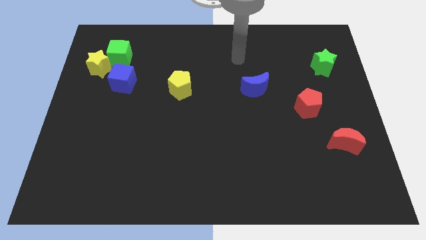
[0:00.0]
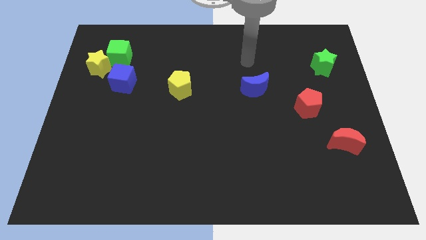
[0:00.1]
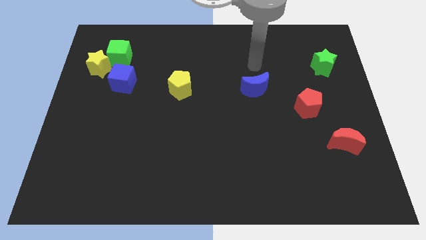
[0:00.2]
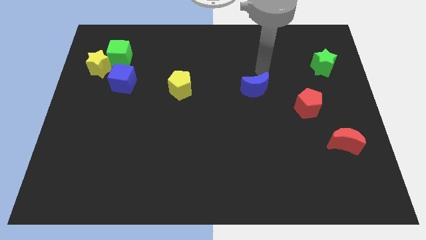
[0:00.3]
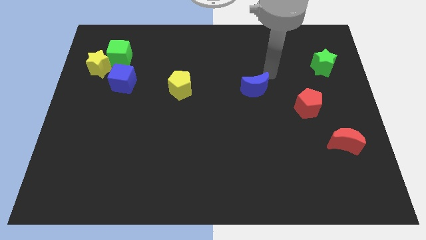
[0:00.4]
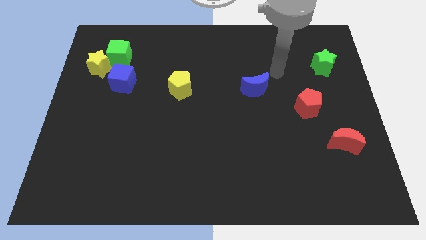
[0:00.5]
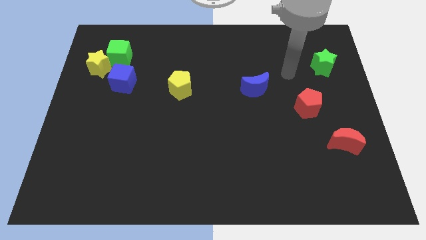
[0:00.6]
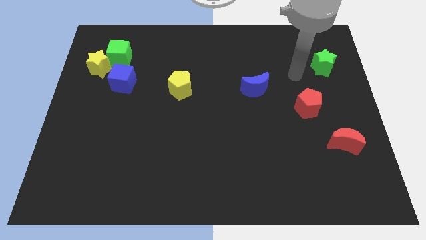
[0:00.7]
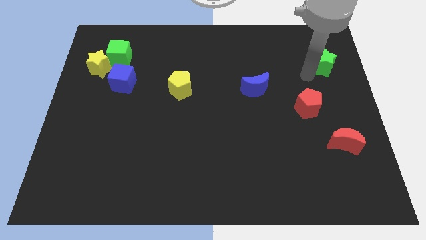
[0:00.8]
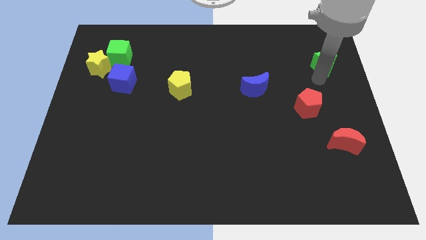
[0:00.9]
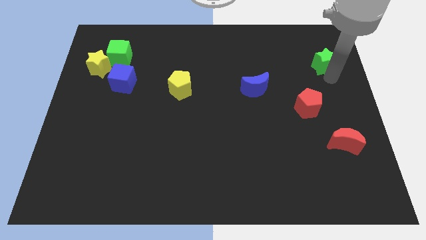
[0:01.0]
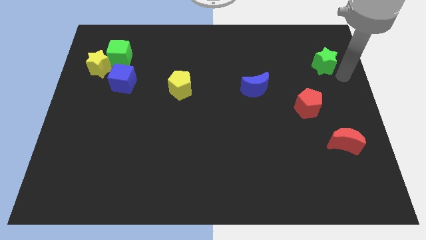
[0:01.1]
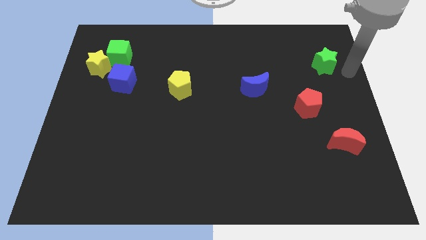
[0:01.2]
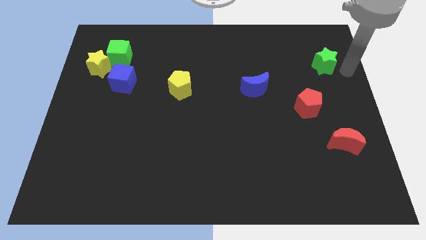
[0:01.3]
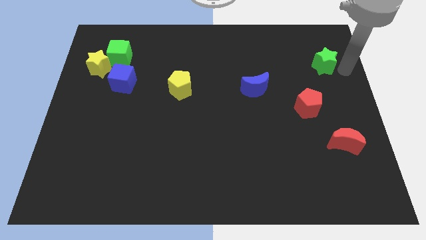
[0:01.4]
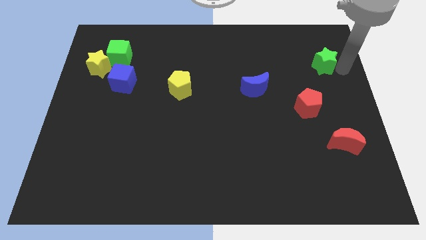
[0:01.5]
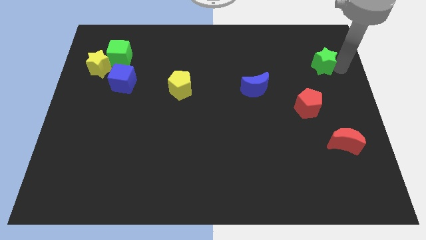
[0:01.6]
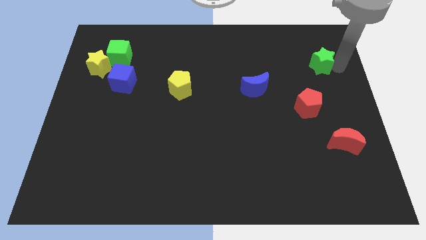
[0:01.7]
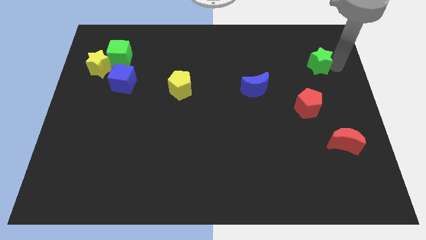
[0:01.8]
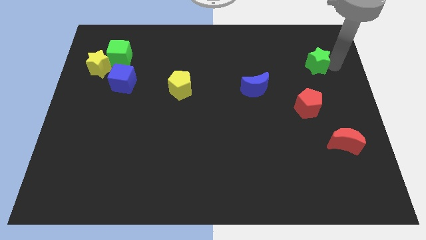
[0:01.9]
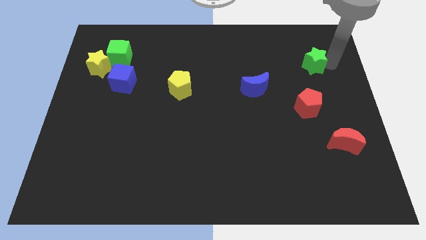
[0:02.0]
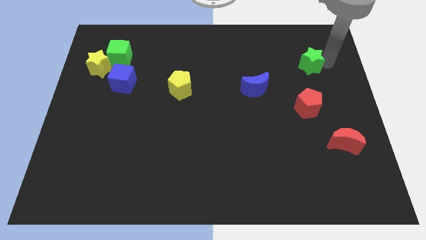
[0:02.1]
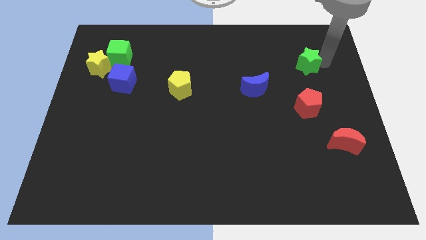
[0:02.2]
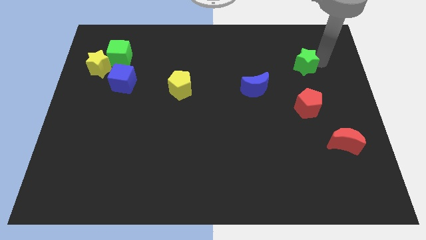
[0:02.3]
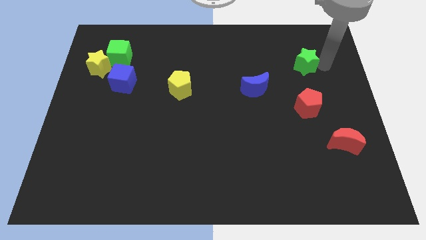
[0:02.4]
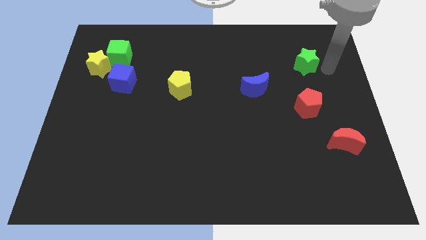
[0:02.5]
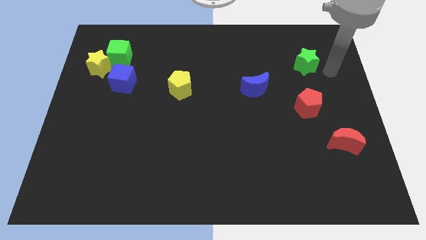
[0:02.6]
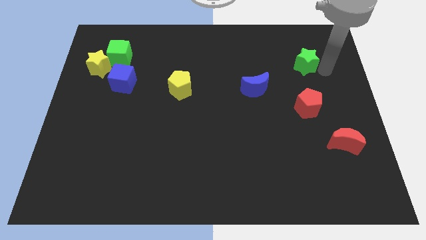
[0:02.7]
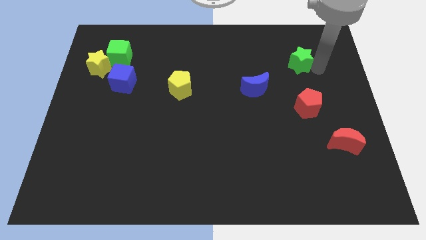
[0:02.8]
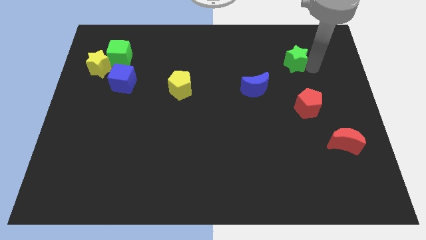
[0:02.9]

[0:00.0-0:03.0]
slightly push the green star to the left

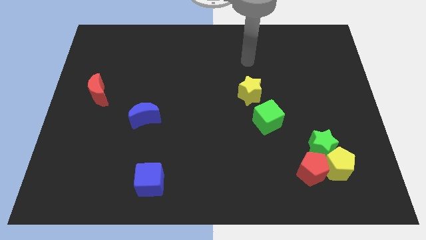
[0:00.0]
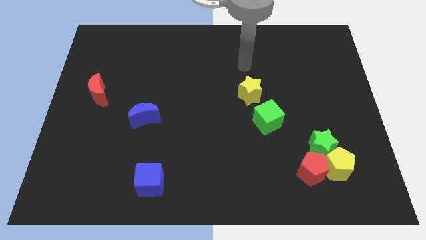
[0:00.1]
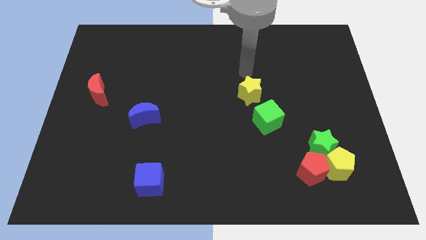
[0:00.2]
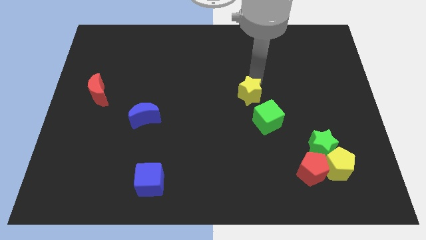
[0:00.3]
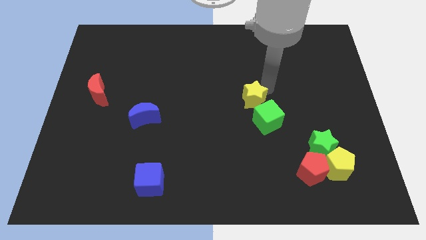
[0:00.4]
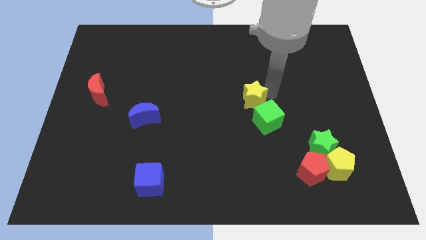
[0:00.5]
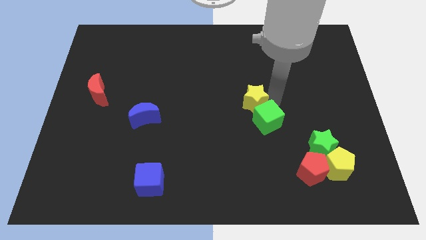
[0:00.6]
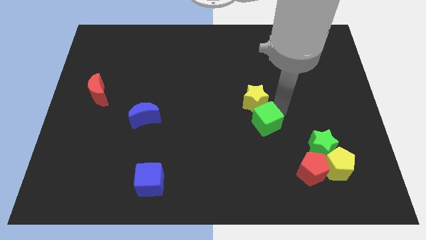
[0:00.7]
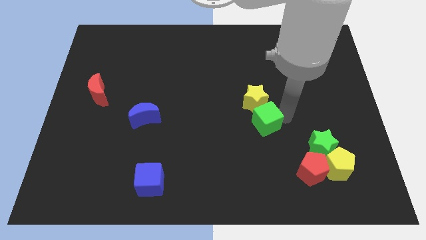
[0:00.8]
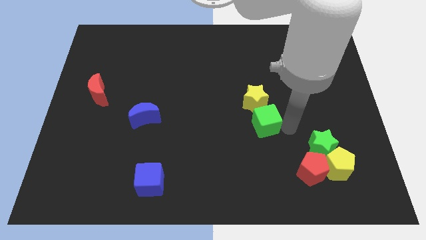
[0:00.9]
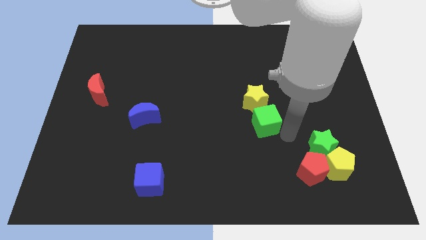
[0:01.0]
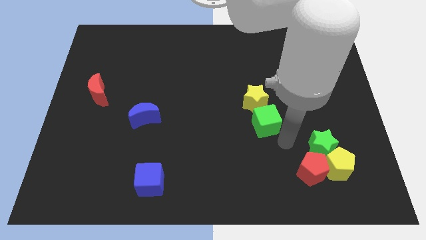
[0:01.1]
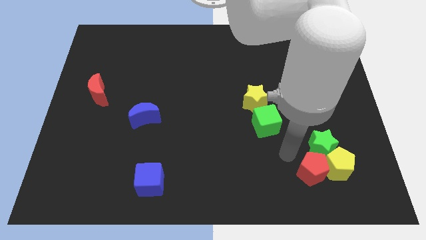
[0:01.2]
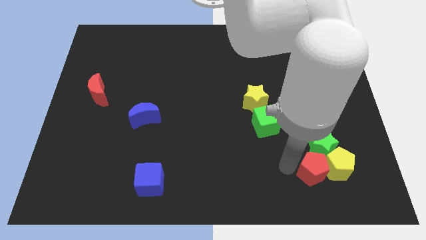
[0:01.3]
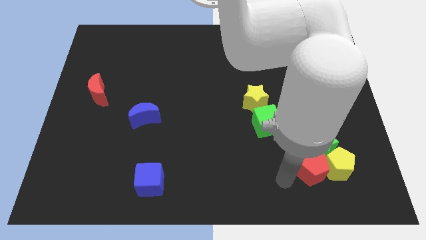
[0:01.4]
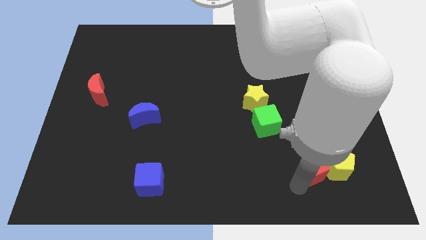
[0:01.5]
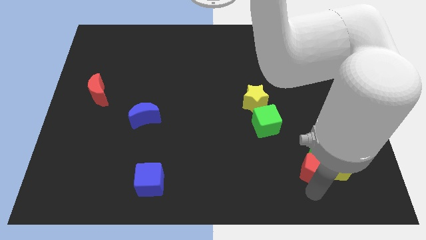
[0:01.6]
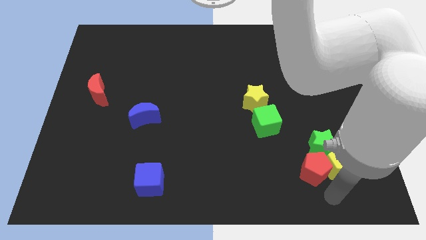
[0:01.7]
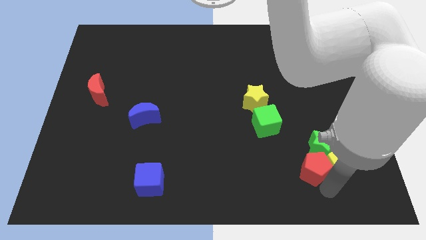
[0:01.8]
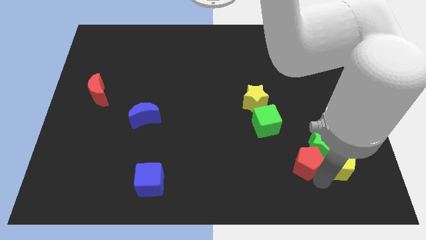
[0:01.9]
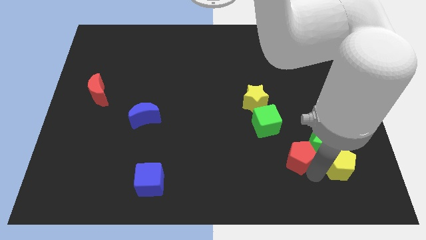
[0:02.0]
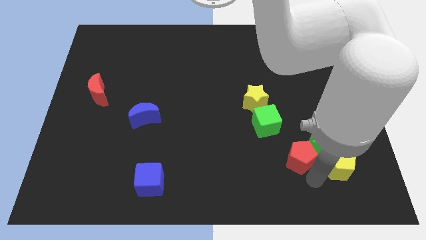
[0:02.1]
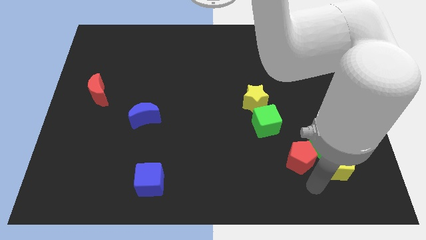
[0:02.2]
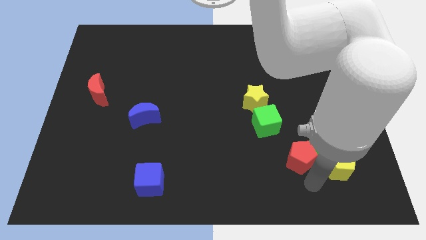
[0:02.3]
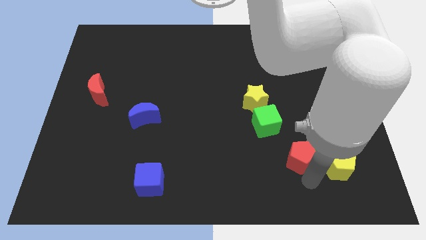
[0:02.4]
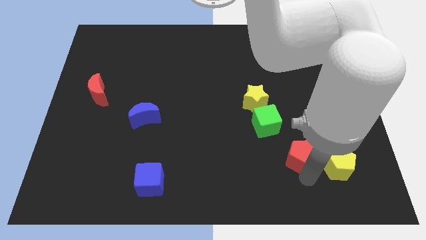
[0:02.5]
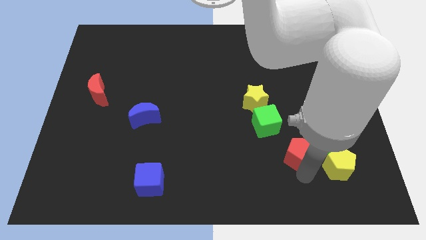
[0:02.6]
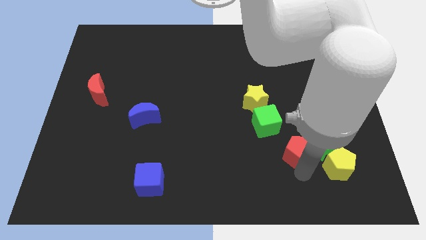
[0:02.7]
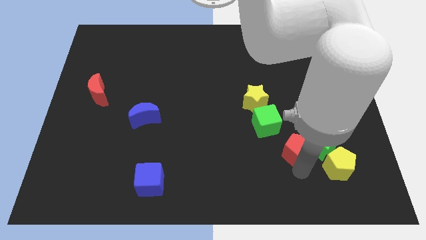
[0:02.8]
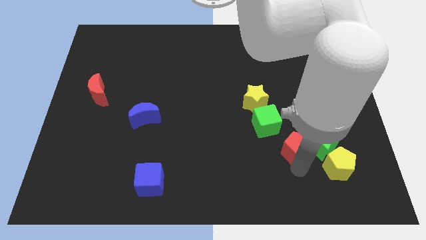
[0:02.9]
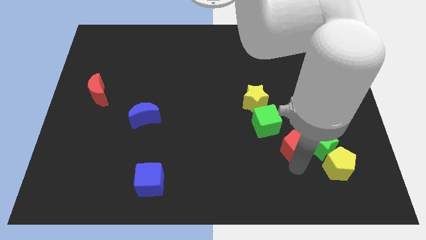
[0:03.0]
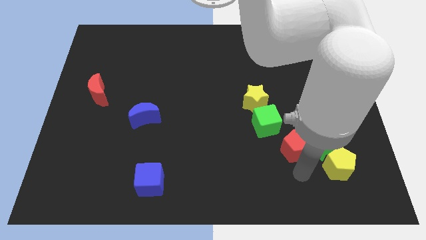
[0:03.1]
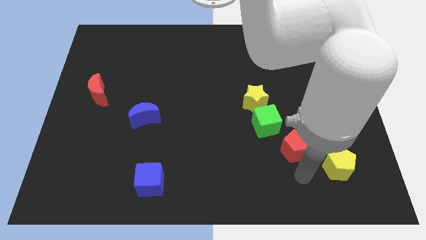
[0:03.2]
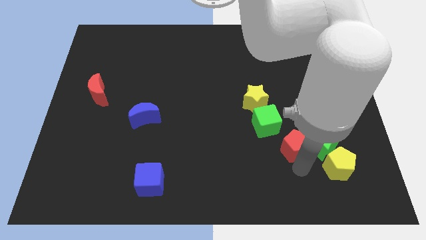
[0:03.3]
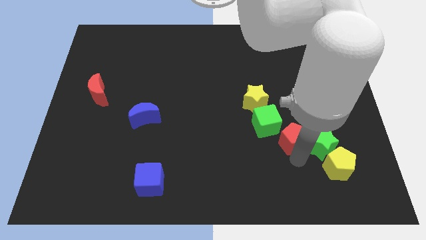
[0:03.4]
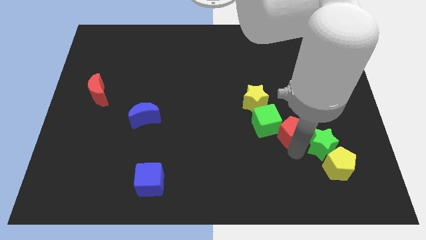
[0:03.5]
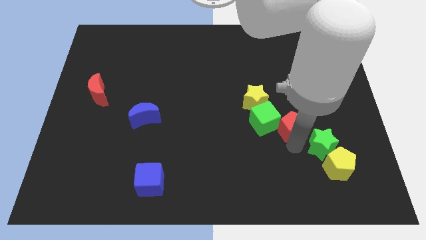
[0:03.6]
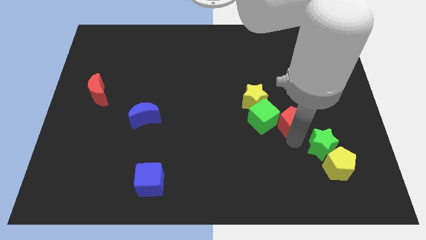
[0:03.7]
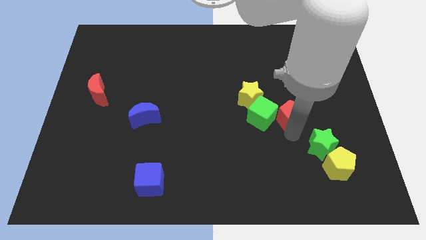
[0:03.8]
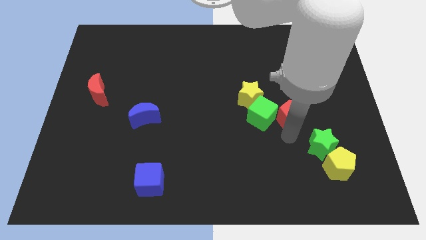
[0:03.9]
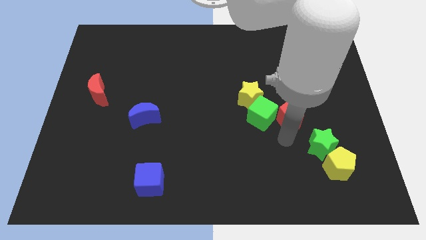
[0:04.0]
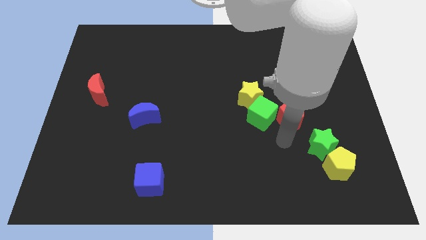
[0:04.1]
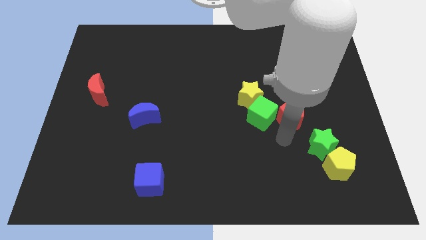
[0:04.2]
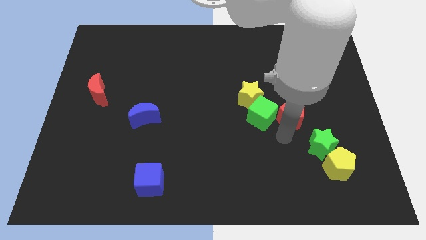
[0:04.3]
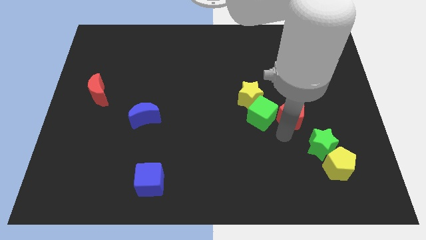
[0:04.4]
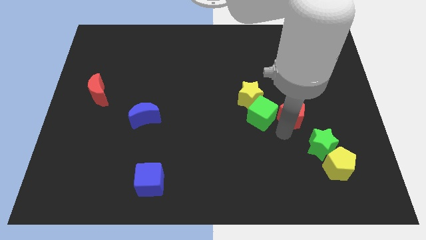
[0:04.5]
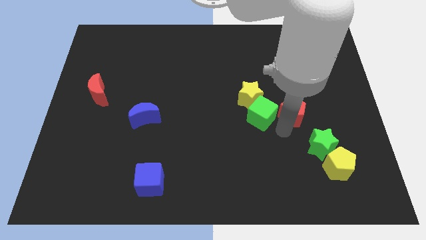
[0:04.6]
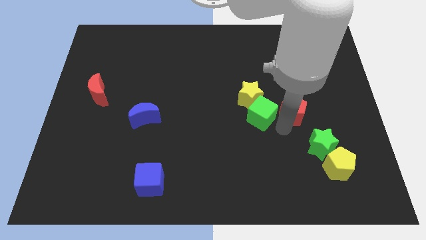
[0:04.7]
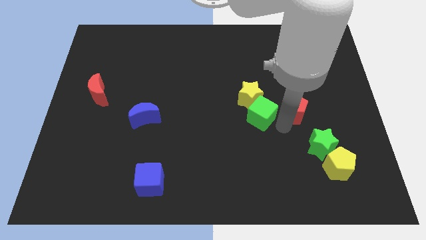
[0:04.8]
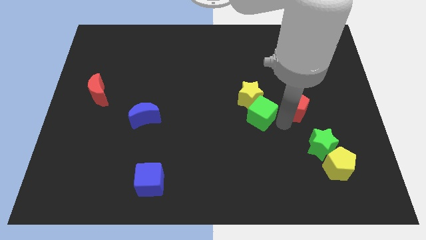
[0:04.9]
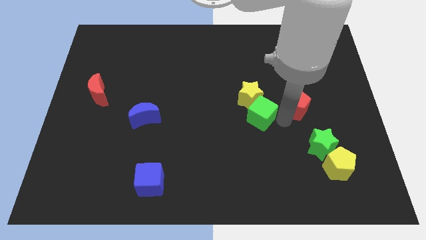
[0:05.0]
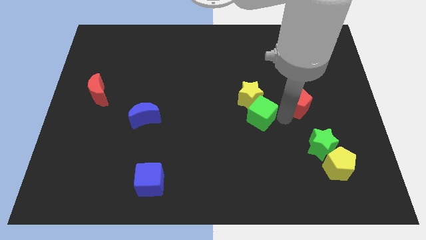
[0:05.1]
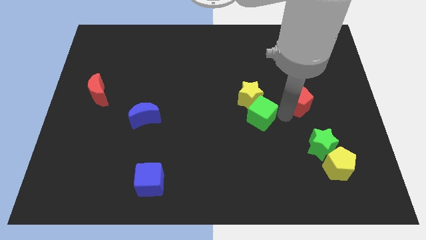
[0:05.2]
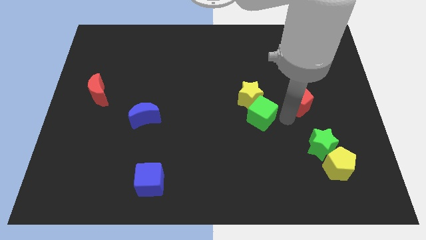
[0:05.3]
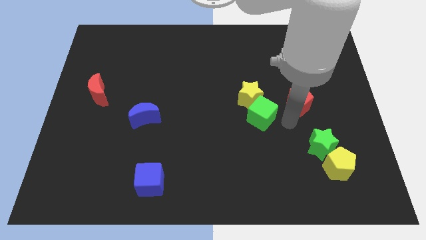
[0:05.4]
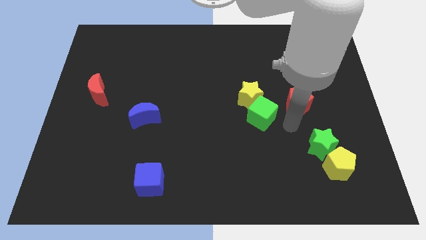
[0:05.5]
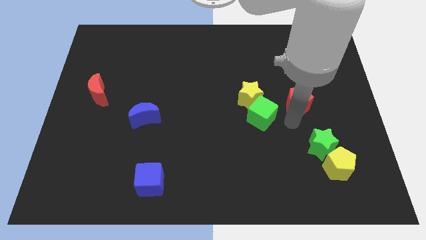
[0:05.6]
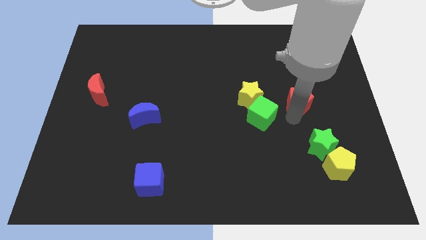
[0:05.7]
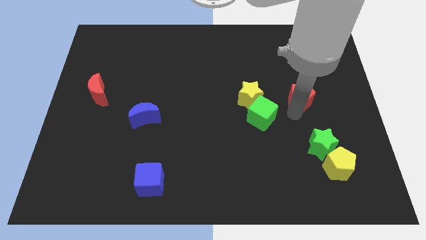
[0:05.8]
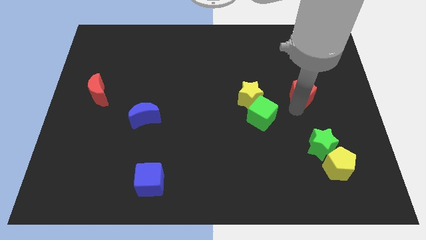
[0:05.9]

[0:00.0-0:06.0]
slide the red pentagon upwards
